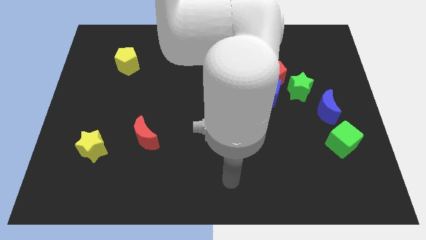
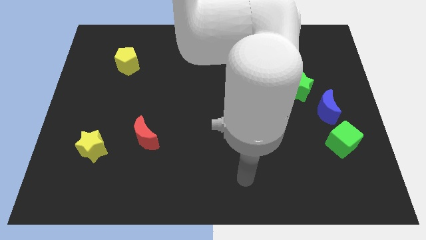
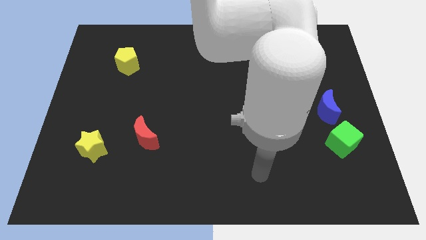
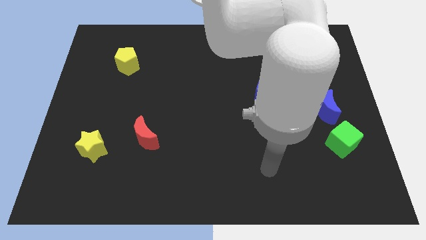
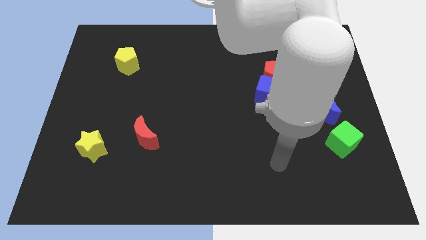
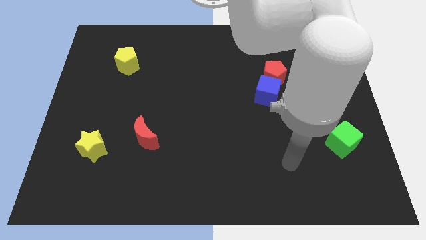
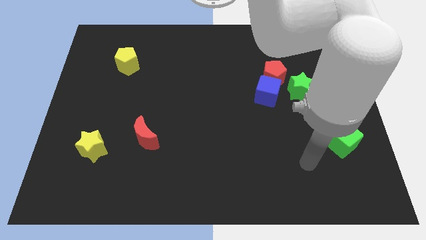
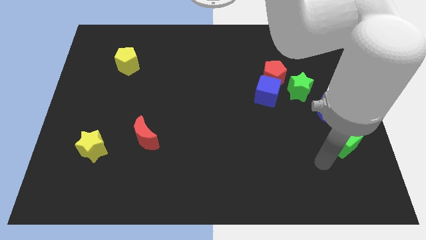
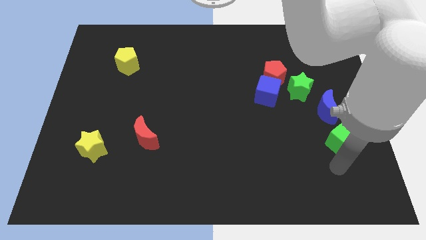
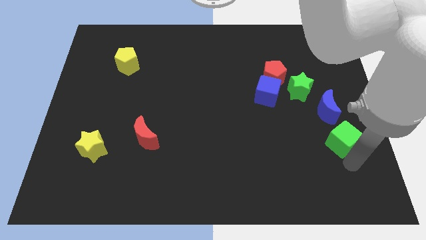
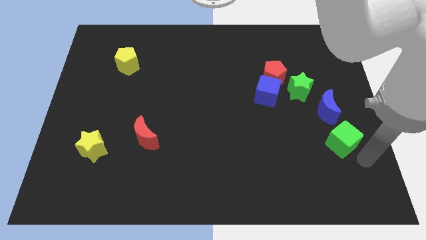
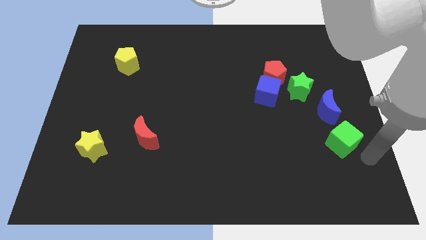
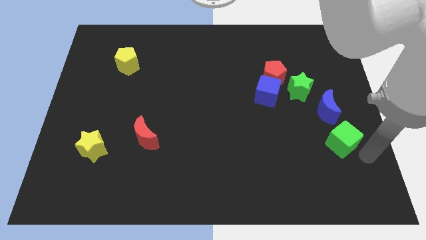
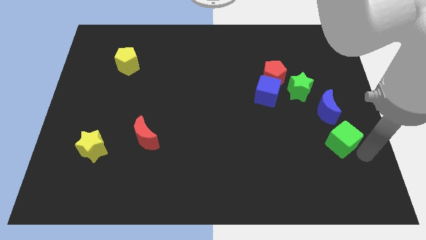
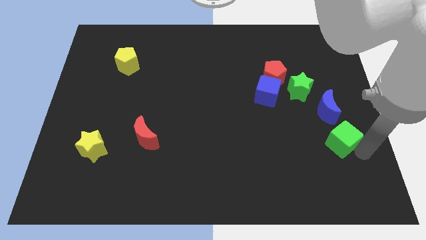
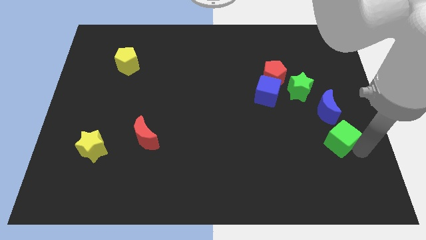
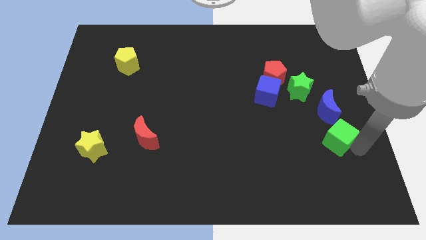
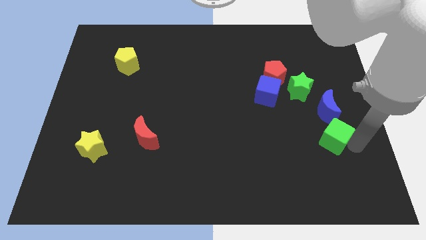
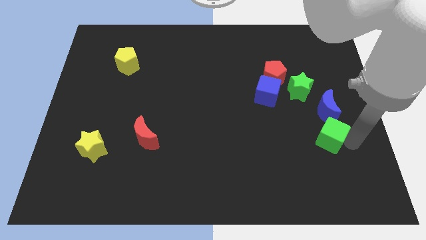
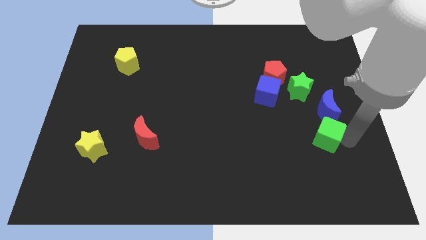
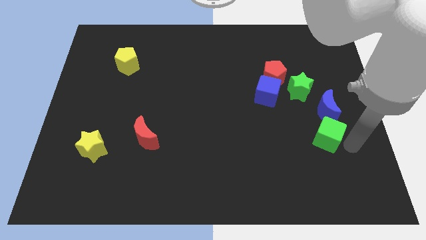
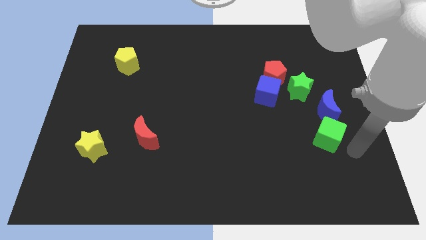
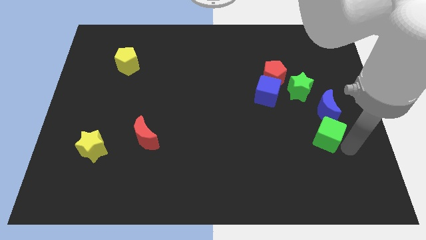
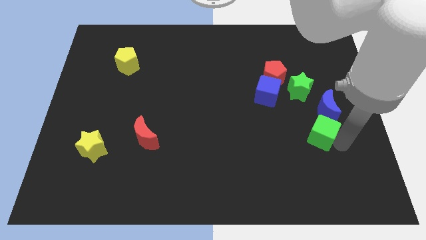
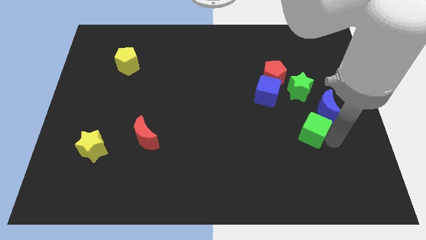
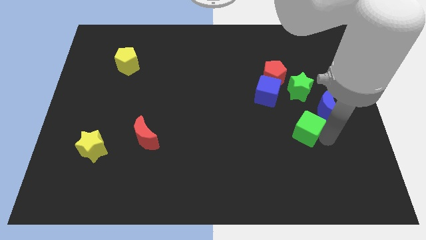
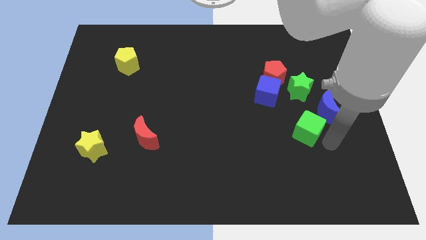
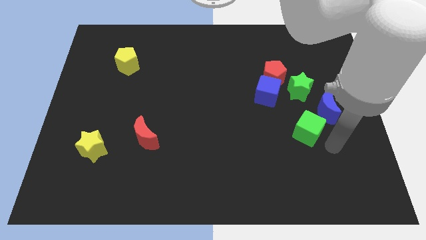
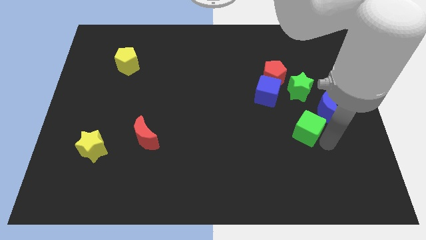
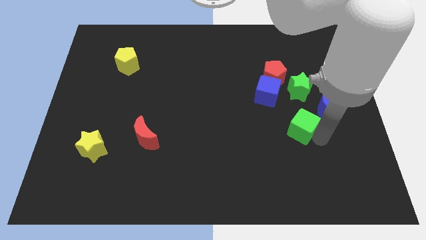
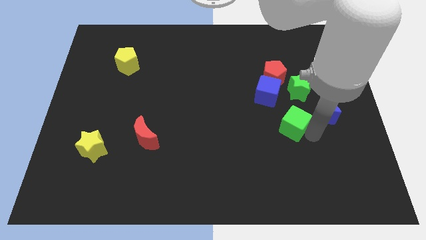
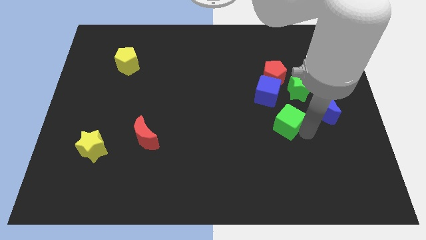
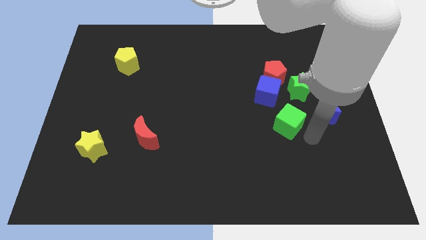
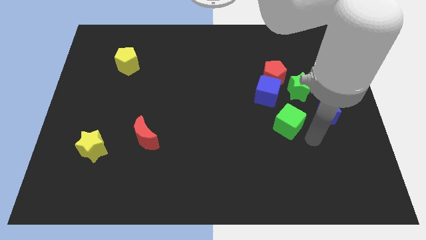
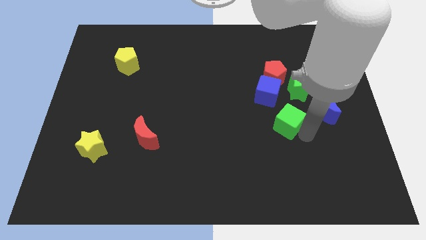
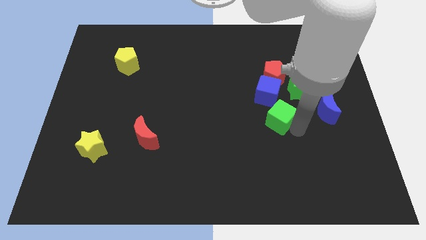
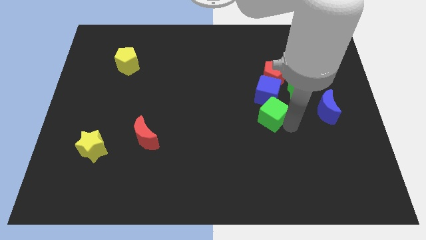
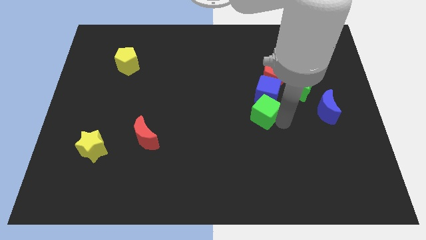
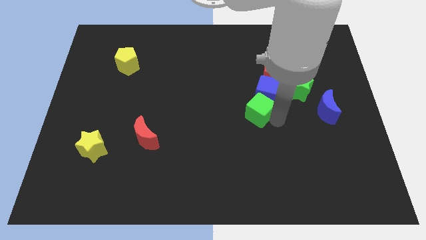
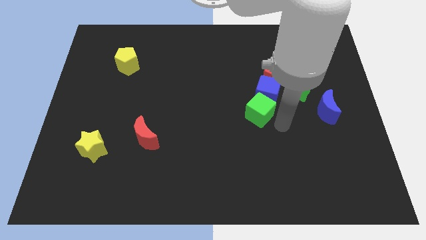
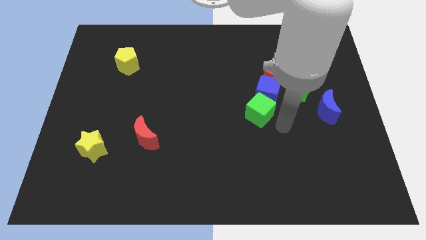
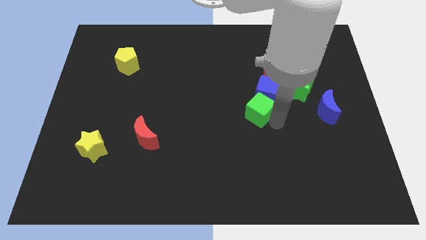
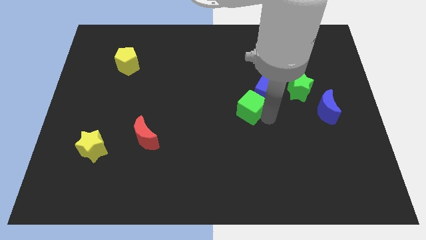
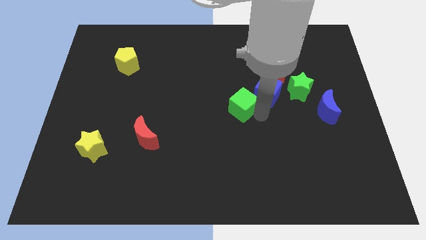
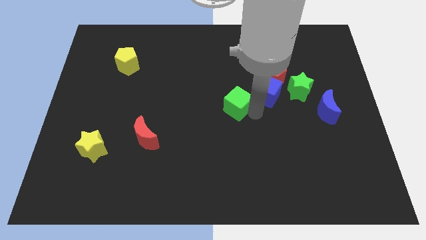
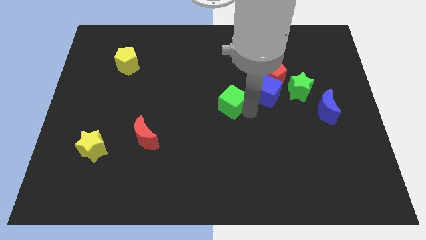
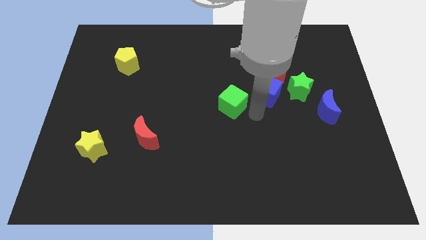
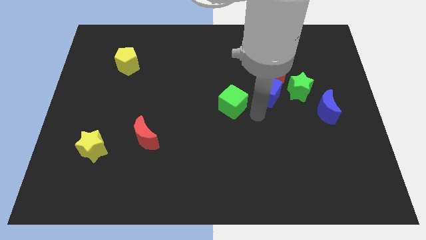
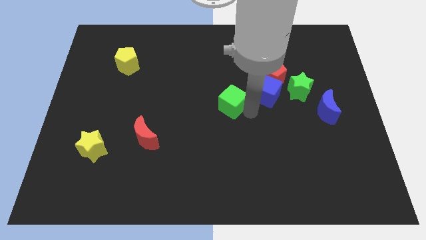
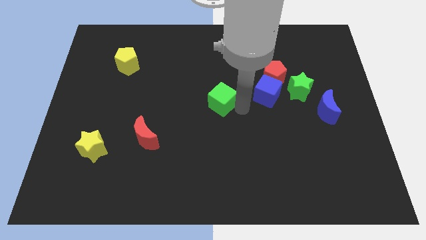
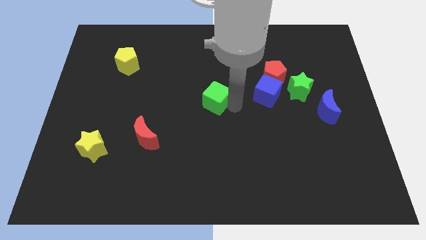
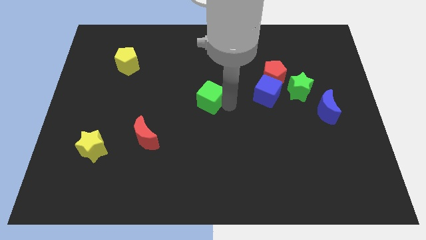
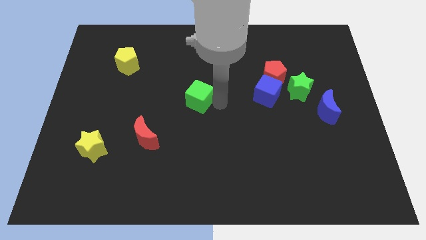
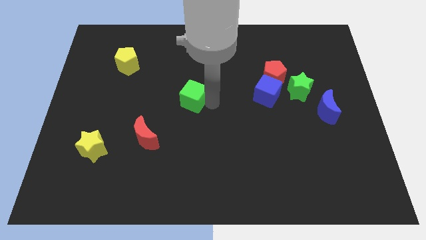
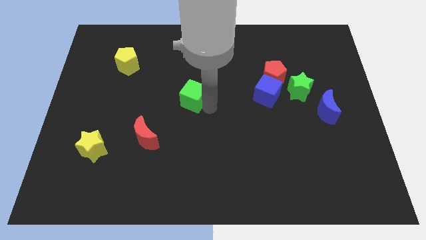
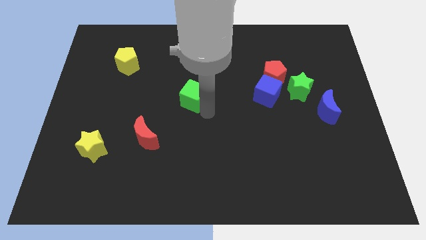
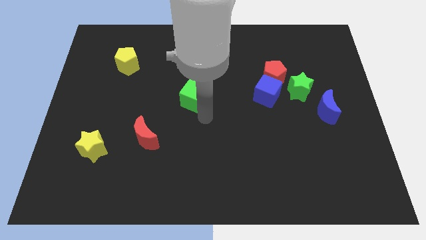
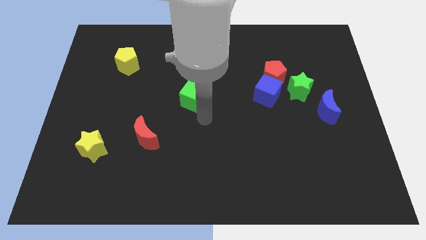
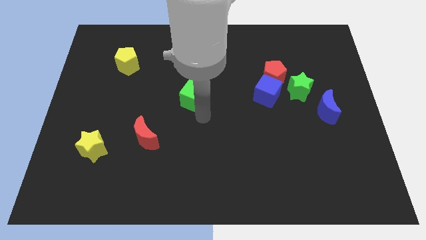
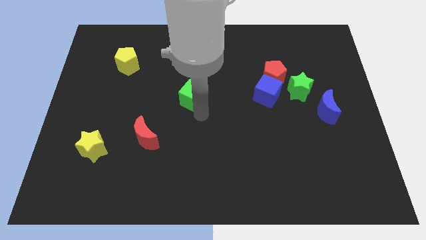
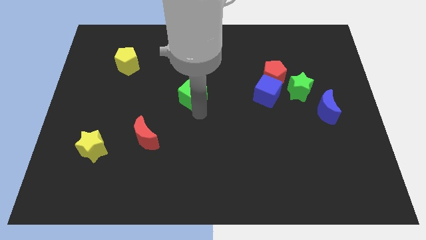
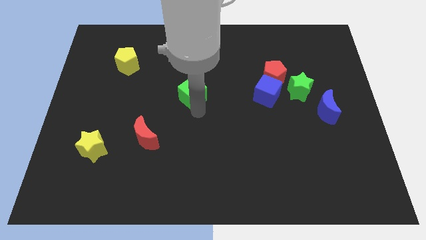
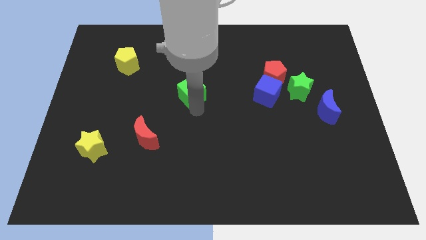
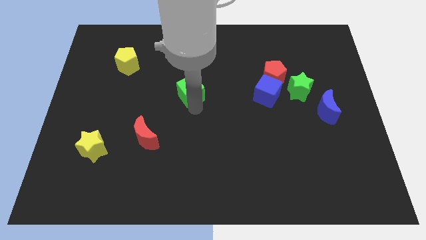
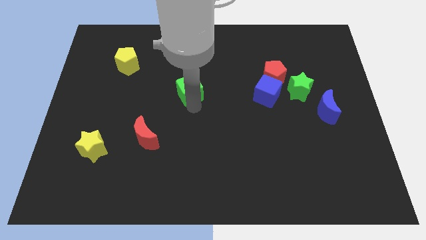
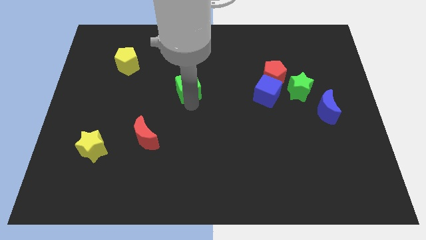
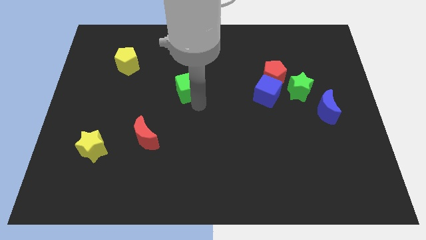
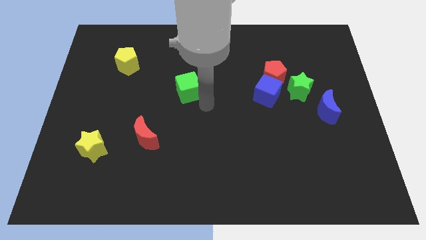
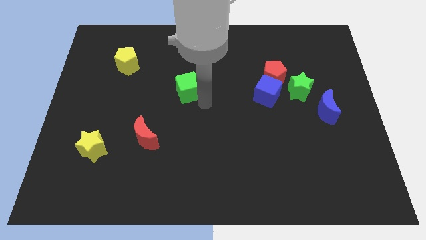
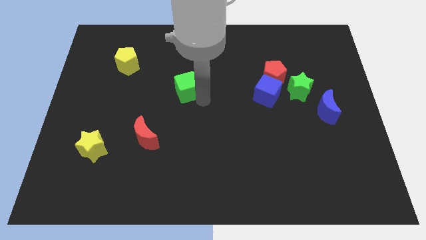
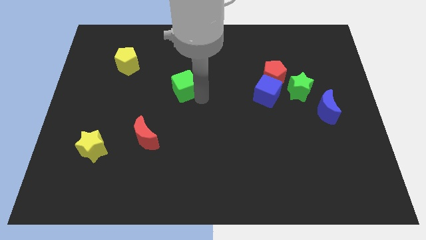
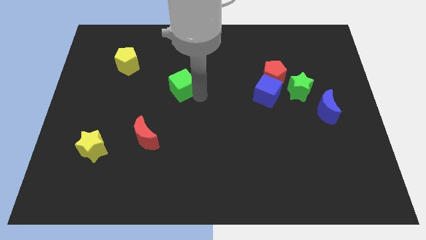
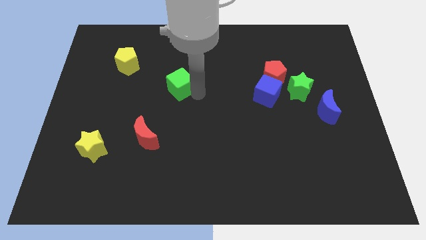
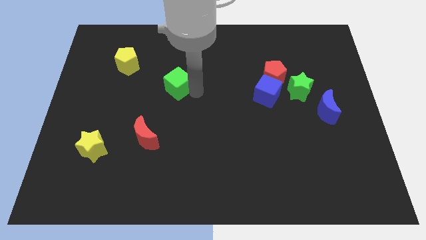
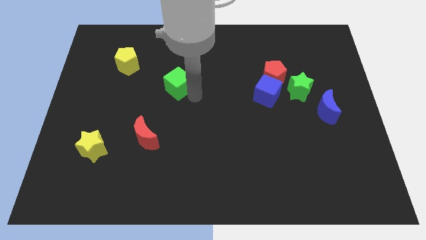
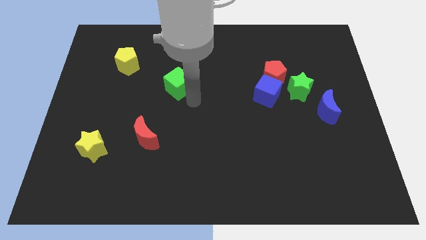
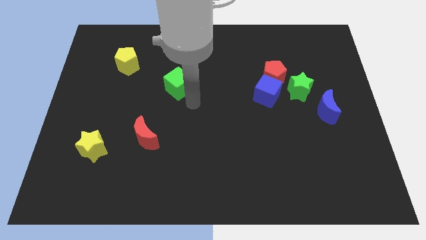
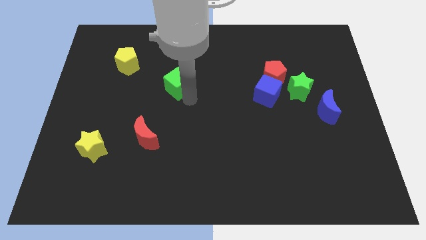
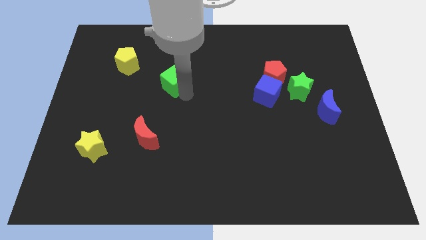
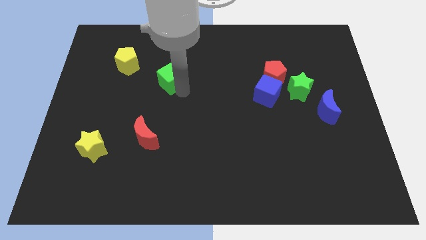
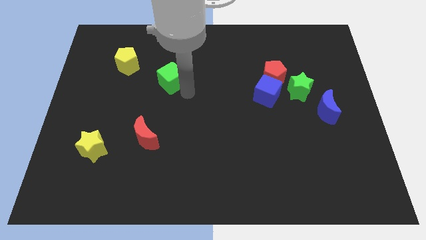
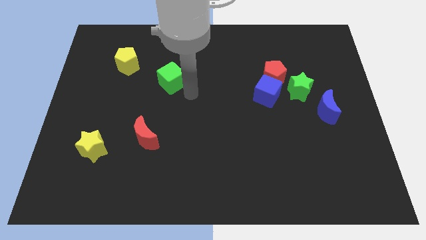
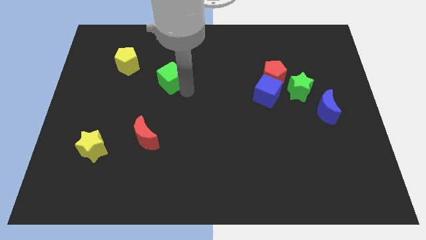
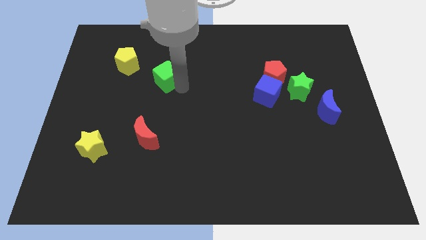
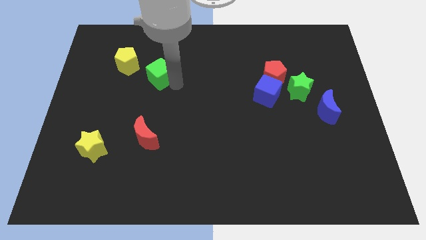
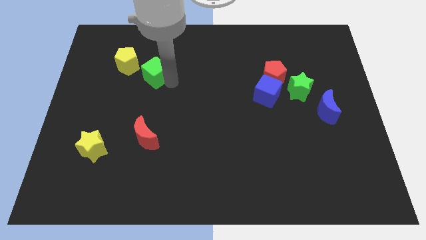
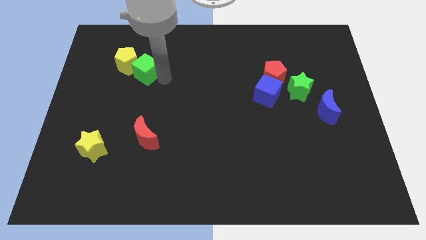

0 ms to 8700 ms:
slide the green cube close to the yellow pentagon
